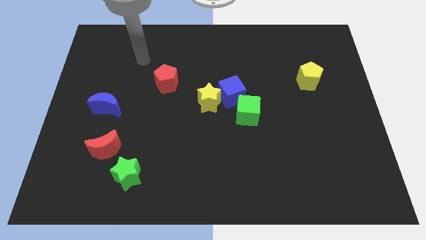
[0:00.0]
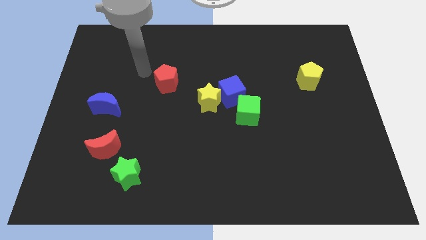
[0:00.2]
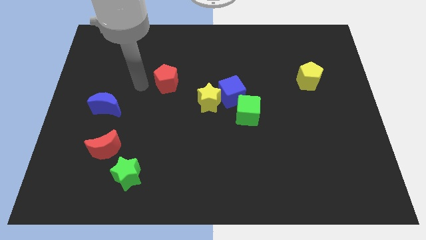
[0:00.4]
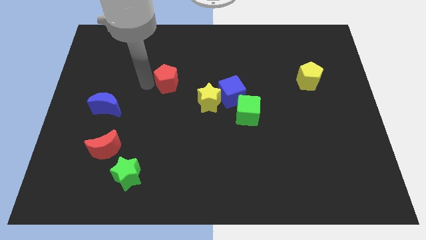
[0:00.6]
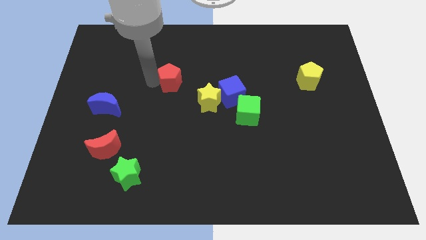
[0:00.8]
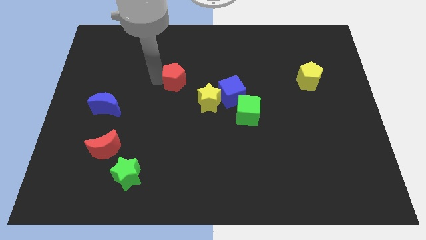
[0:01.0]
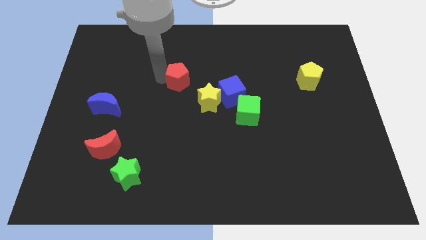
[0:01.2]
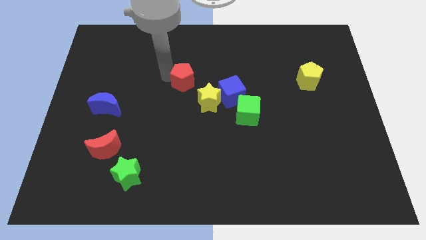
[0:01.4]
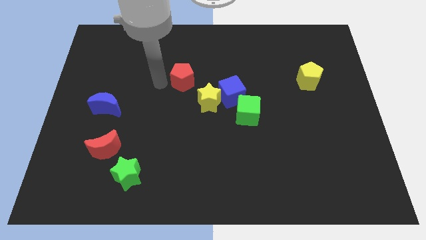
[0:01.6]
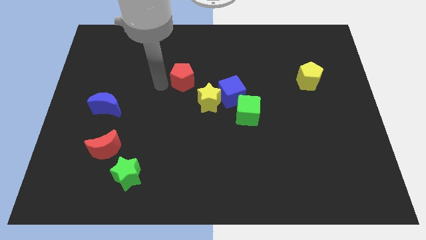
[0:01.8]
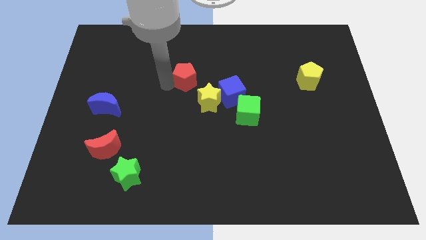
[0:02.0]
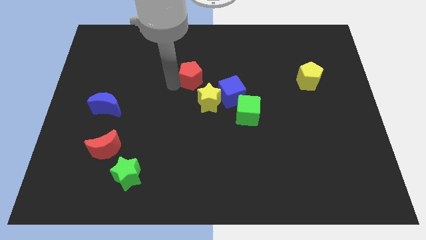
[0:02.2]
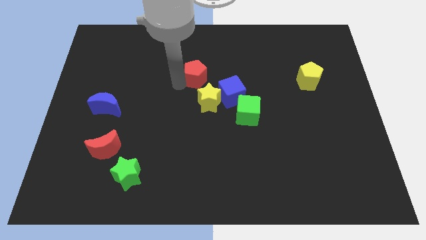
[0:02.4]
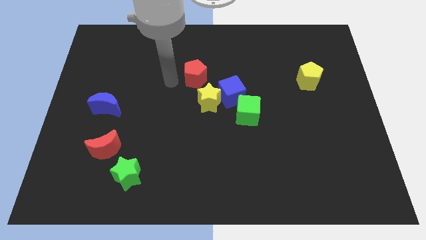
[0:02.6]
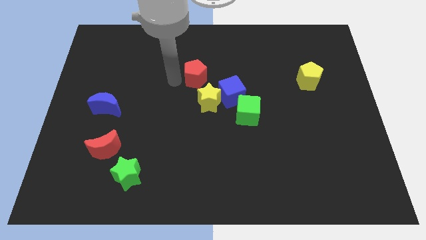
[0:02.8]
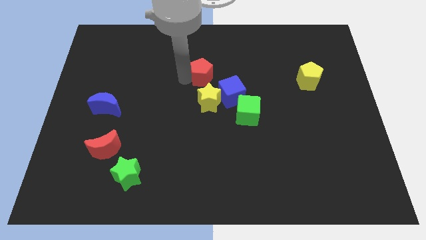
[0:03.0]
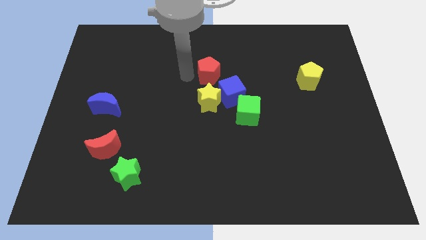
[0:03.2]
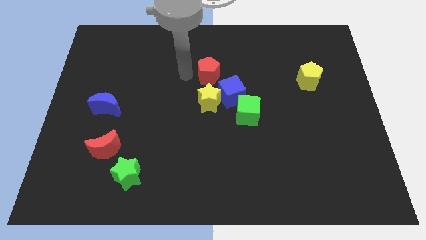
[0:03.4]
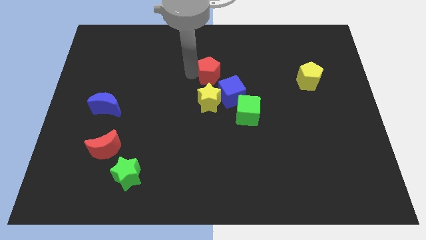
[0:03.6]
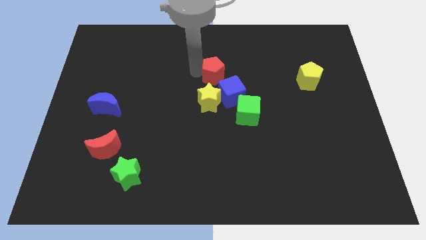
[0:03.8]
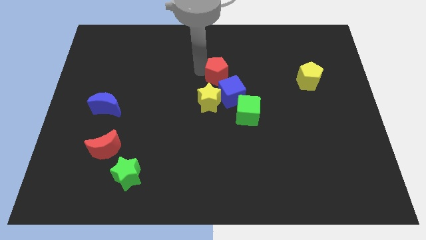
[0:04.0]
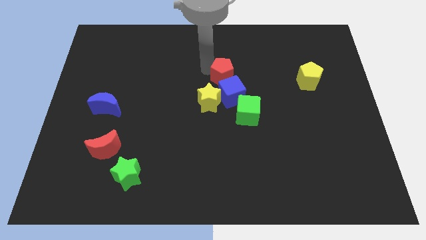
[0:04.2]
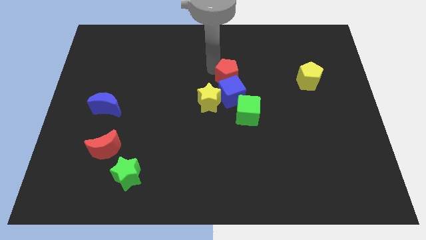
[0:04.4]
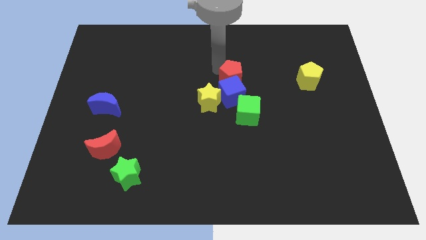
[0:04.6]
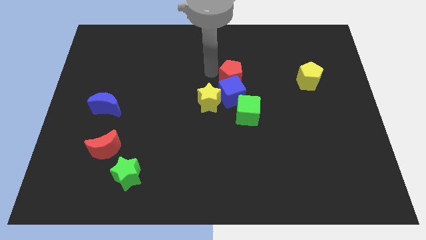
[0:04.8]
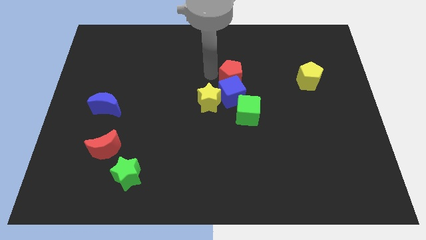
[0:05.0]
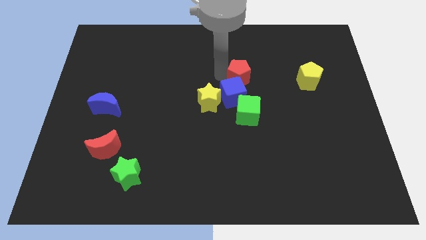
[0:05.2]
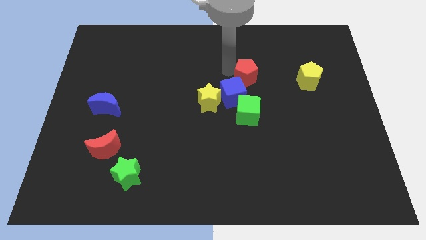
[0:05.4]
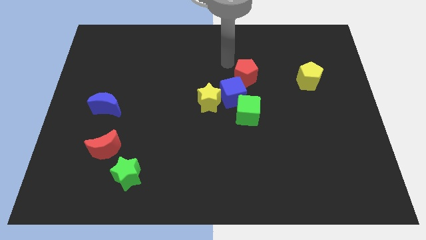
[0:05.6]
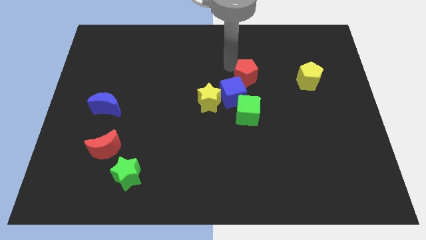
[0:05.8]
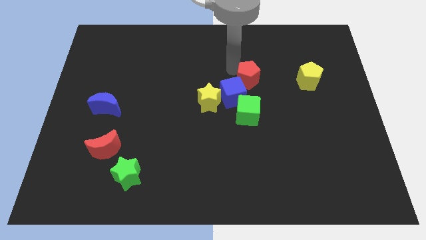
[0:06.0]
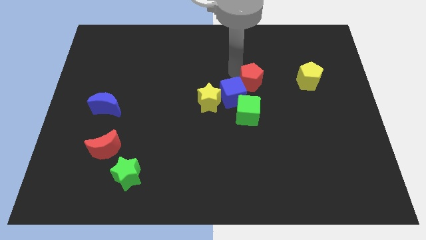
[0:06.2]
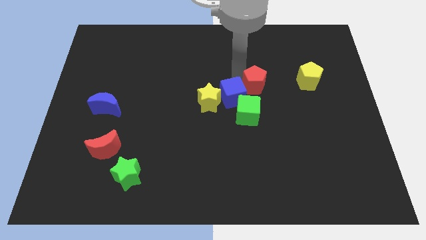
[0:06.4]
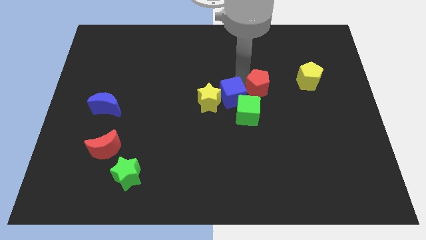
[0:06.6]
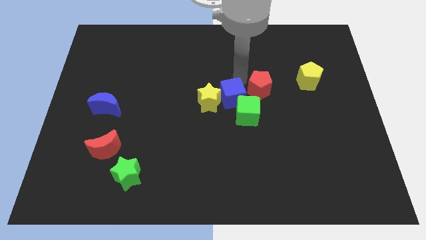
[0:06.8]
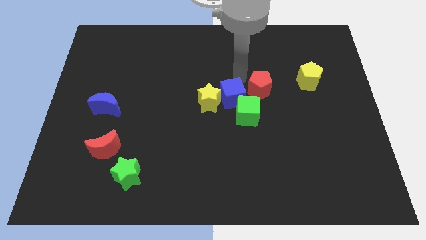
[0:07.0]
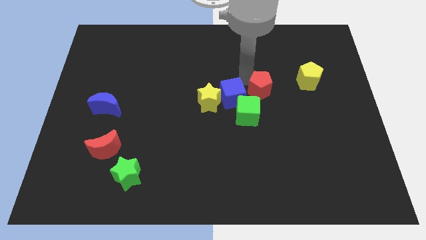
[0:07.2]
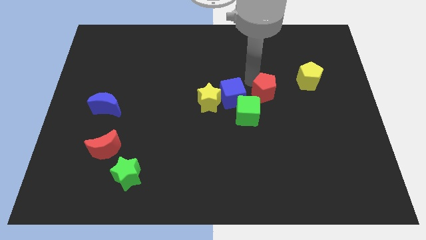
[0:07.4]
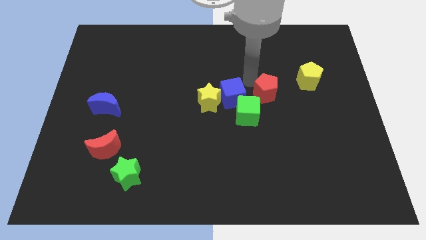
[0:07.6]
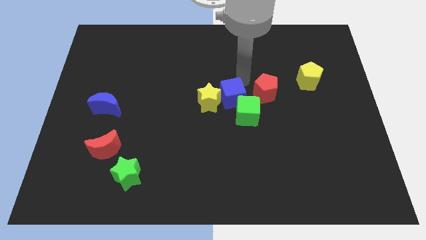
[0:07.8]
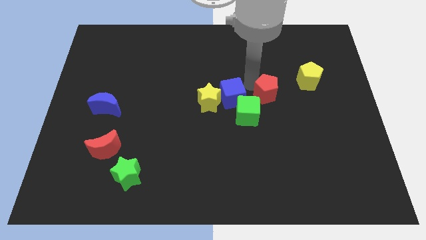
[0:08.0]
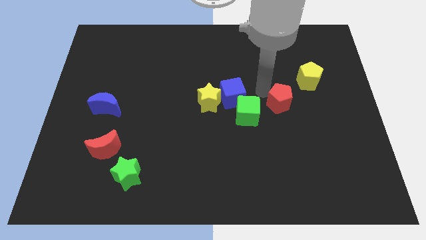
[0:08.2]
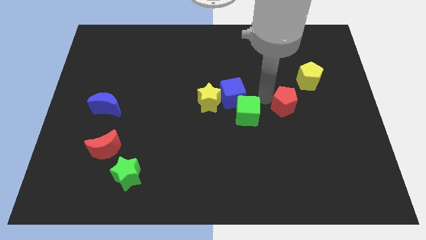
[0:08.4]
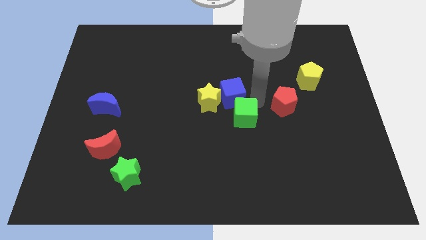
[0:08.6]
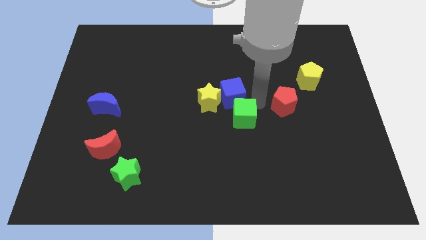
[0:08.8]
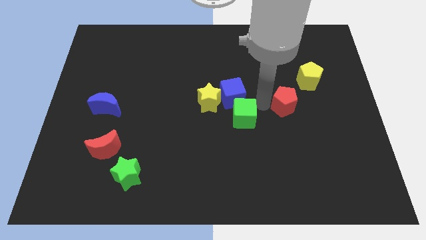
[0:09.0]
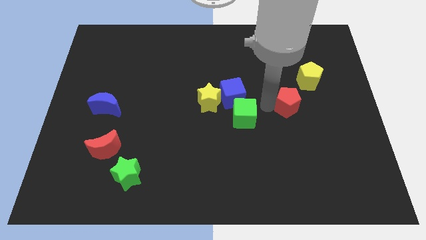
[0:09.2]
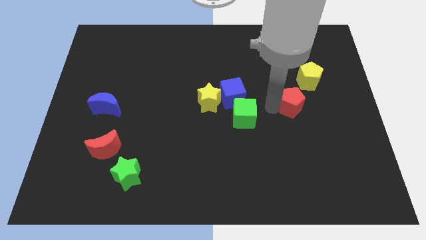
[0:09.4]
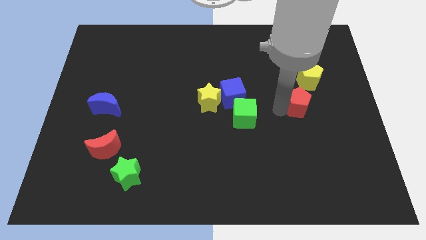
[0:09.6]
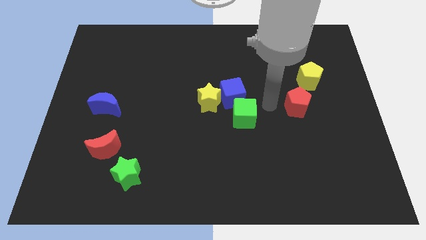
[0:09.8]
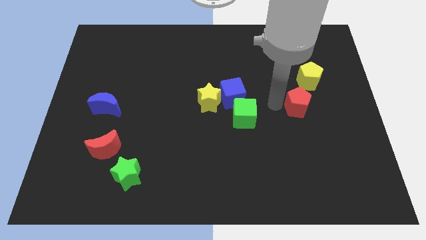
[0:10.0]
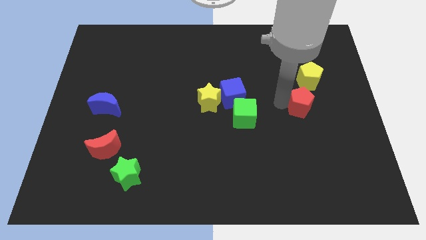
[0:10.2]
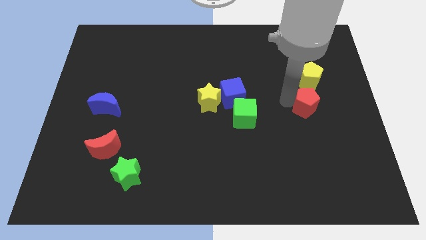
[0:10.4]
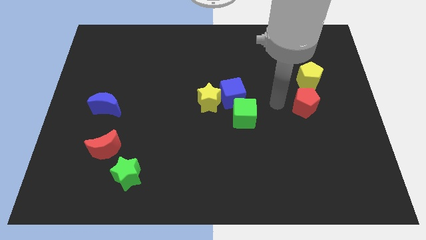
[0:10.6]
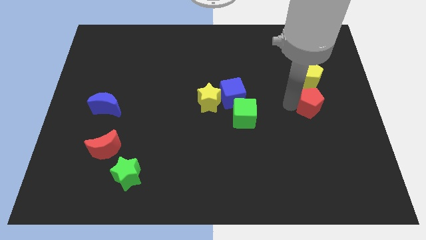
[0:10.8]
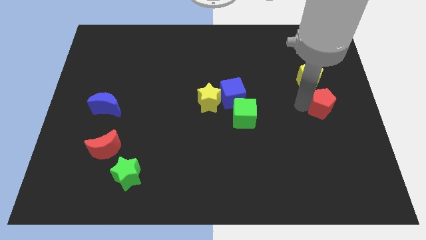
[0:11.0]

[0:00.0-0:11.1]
move the red pentagon to the right side
